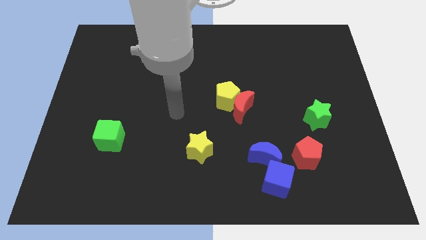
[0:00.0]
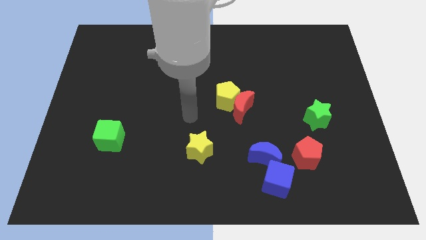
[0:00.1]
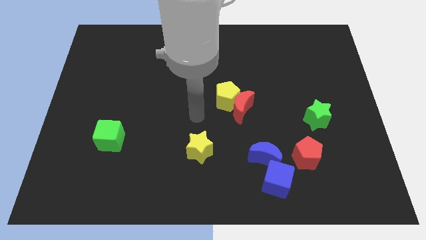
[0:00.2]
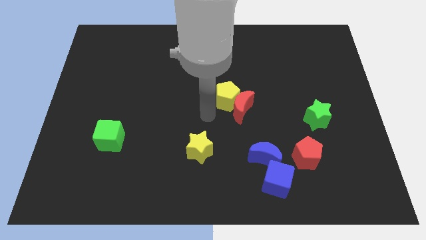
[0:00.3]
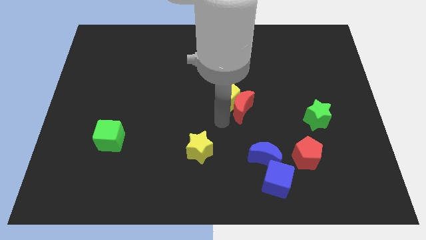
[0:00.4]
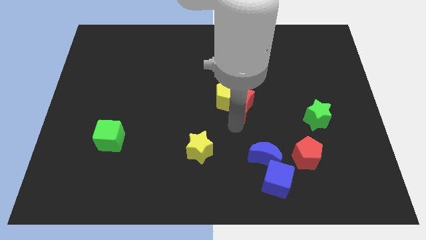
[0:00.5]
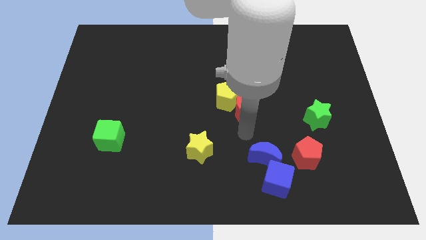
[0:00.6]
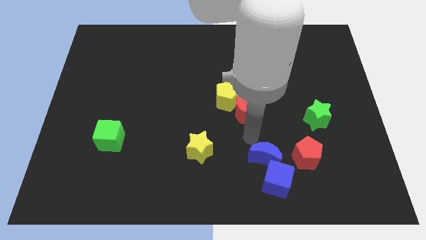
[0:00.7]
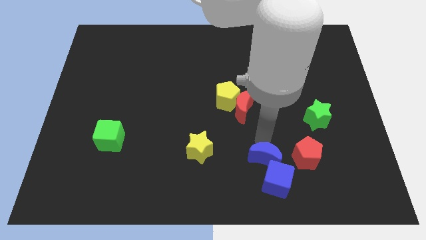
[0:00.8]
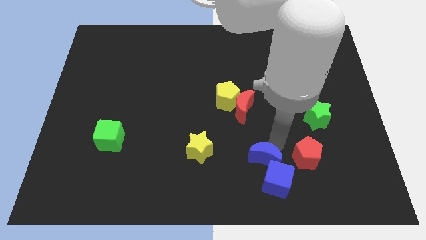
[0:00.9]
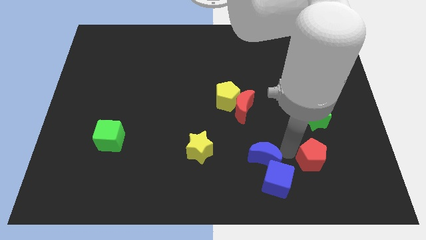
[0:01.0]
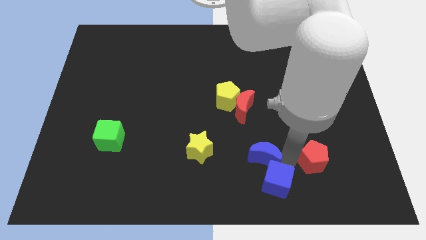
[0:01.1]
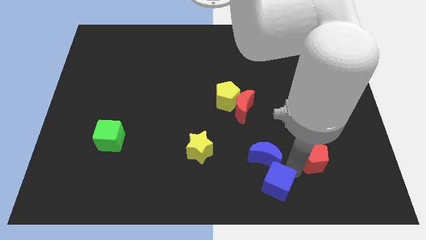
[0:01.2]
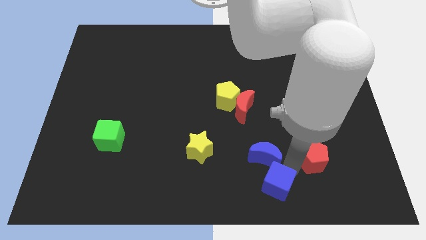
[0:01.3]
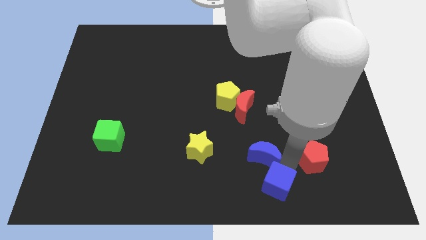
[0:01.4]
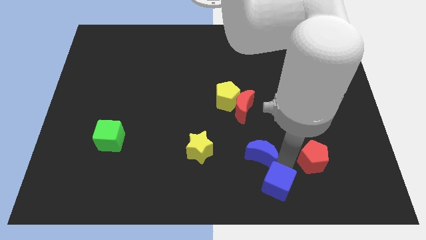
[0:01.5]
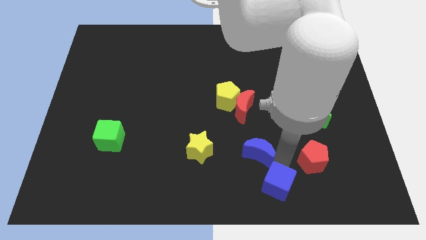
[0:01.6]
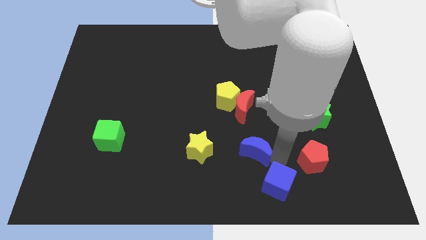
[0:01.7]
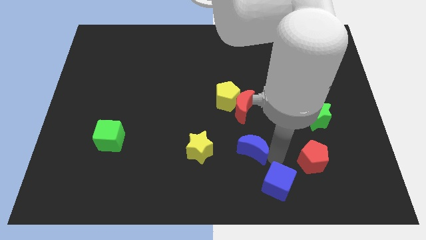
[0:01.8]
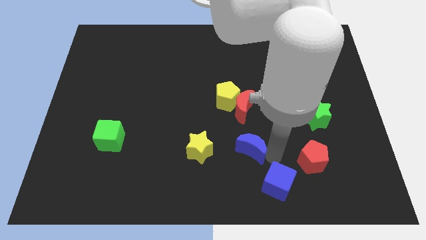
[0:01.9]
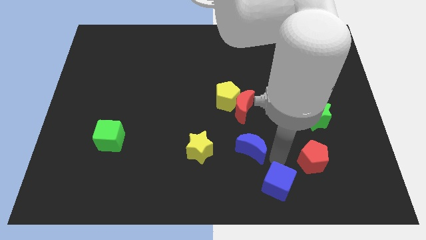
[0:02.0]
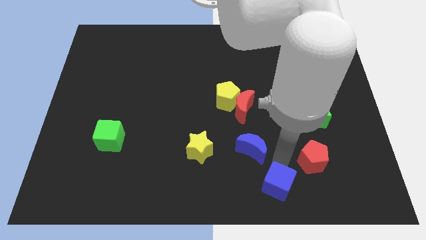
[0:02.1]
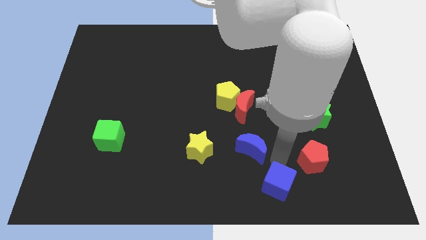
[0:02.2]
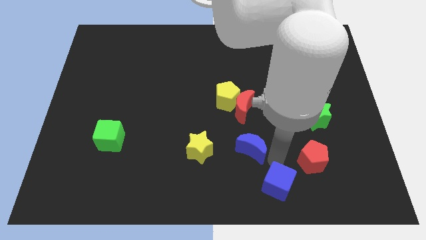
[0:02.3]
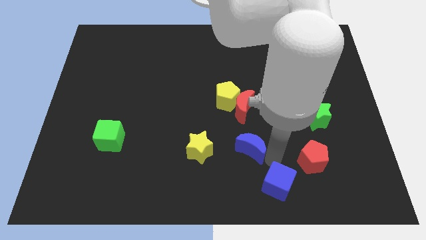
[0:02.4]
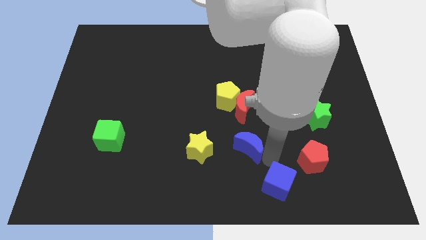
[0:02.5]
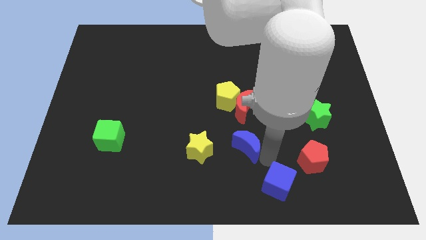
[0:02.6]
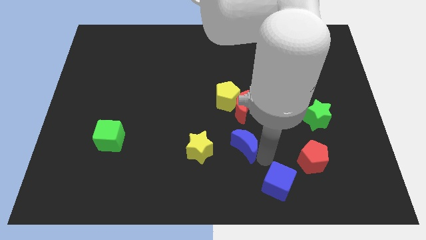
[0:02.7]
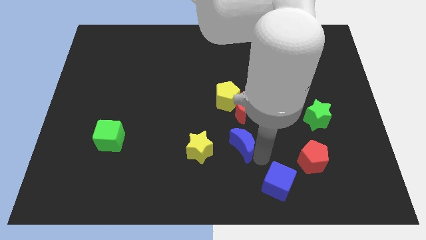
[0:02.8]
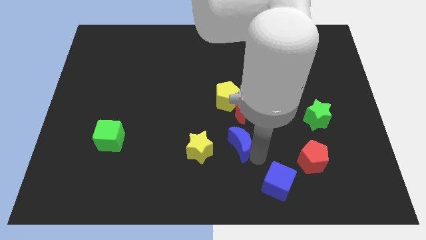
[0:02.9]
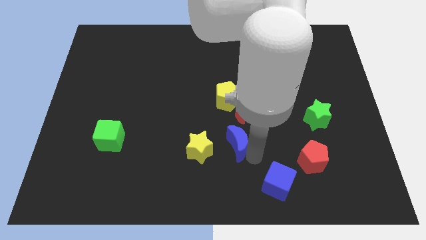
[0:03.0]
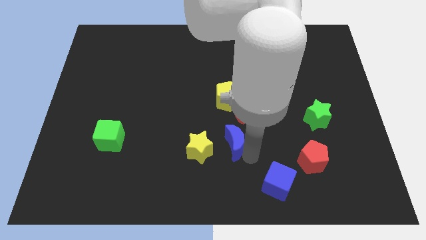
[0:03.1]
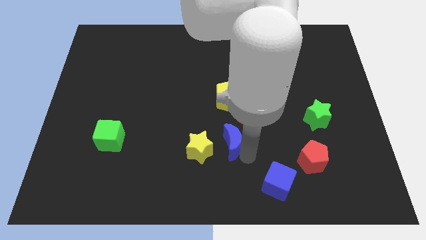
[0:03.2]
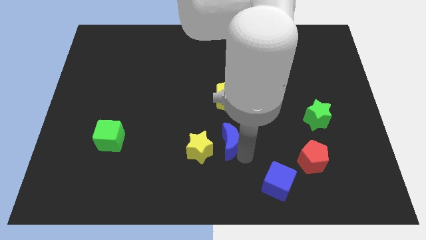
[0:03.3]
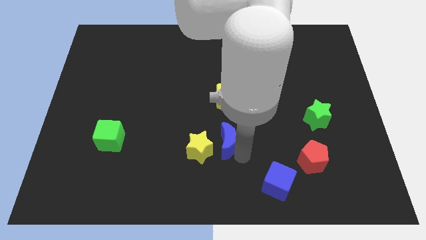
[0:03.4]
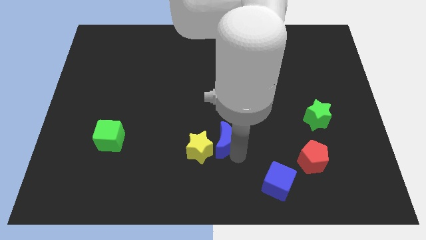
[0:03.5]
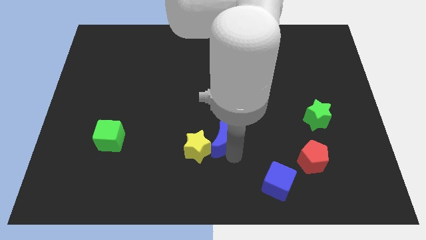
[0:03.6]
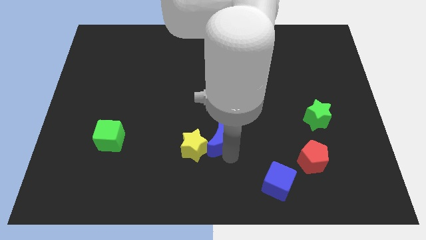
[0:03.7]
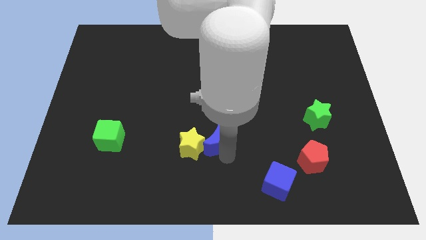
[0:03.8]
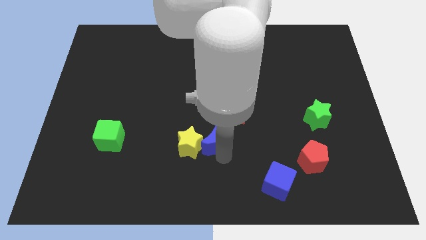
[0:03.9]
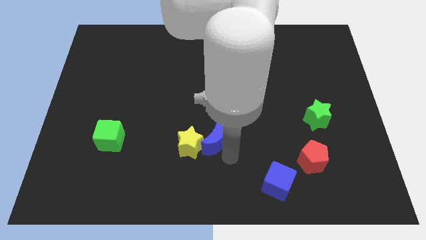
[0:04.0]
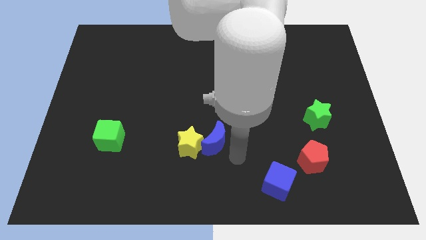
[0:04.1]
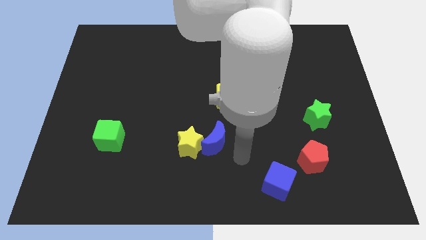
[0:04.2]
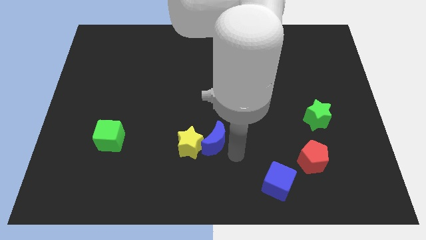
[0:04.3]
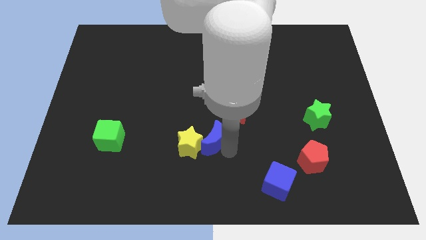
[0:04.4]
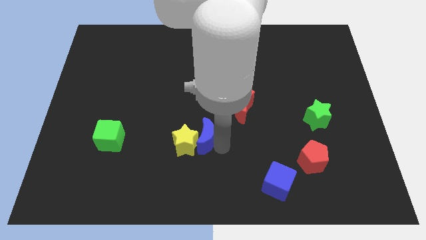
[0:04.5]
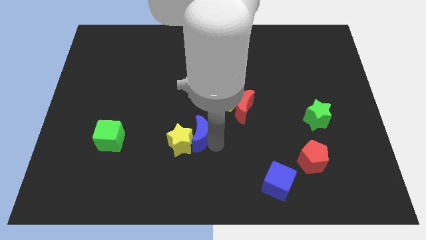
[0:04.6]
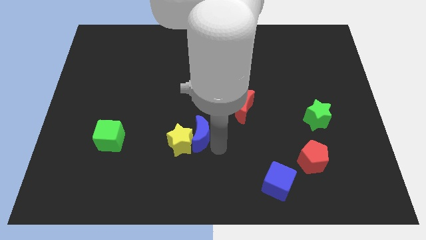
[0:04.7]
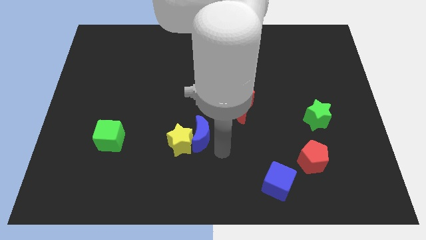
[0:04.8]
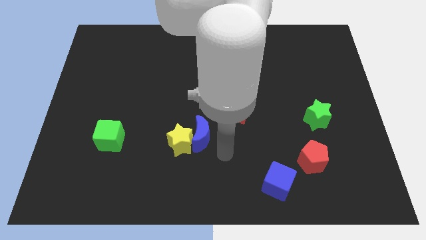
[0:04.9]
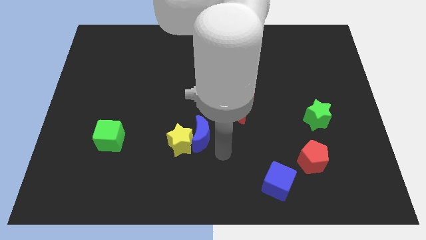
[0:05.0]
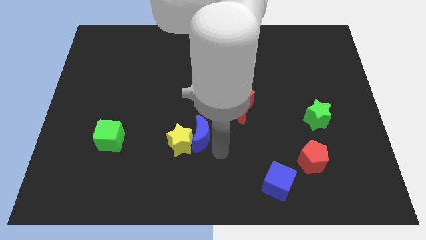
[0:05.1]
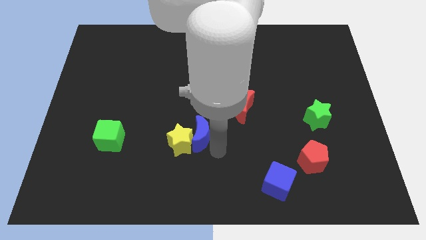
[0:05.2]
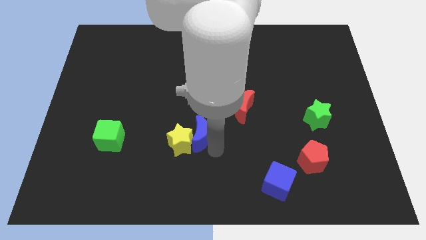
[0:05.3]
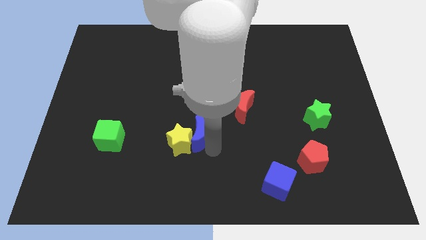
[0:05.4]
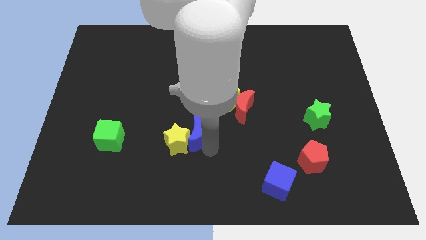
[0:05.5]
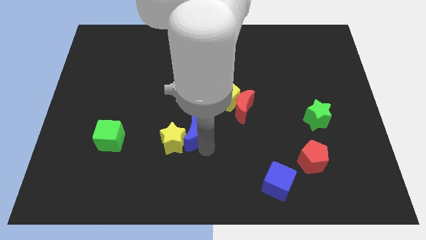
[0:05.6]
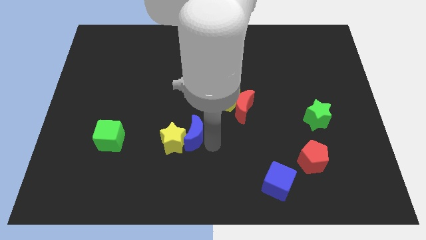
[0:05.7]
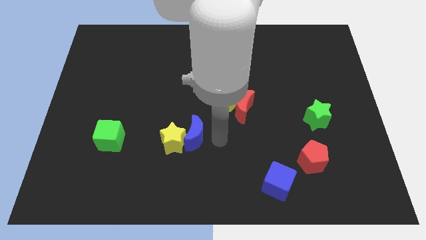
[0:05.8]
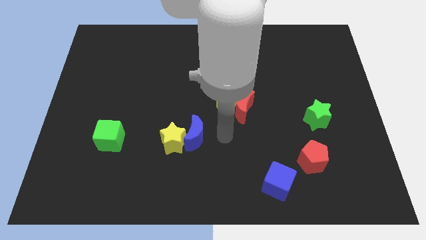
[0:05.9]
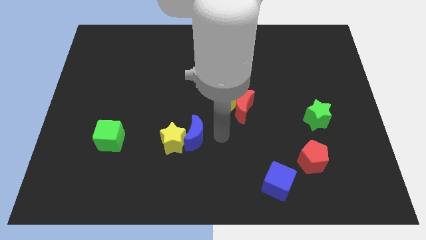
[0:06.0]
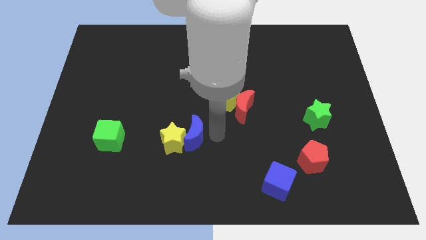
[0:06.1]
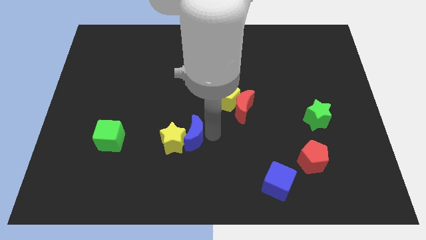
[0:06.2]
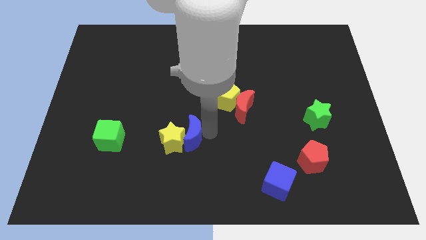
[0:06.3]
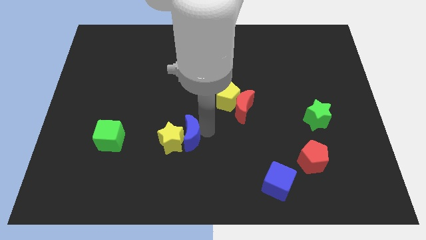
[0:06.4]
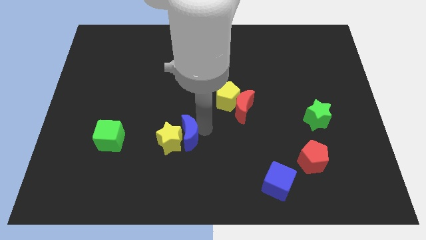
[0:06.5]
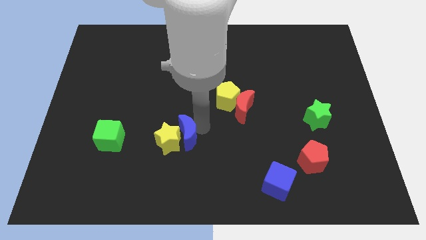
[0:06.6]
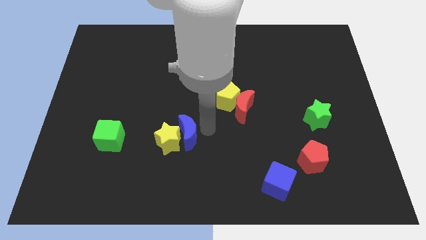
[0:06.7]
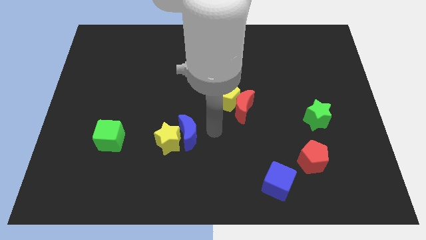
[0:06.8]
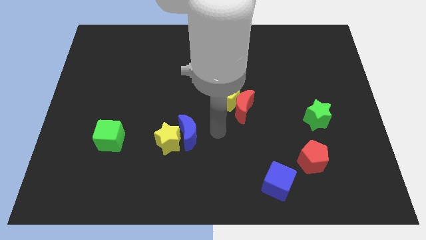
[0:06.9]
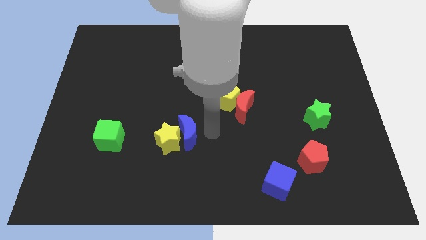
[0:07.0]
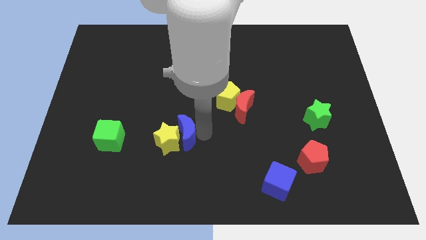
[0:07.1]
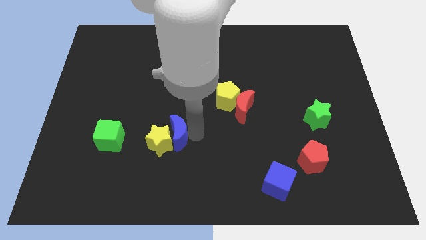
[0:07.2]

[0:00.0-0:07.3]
put the blue moon right of the green cube
